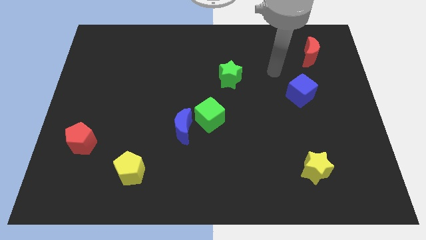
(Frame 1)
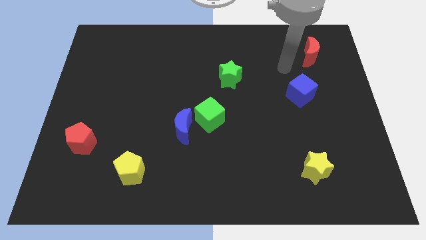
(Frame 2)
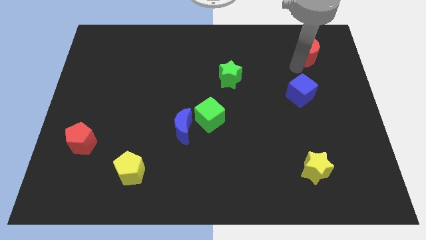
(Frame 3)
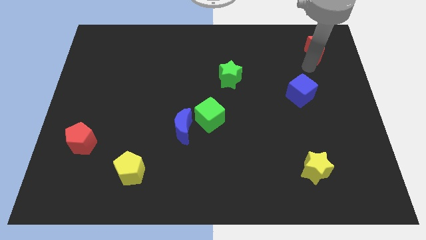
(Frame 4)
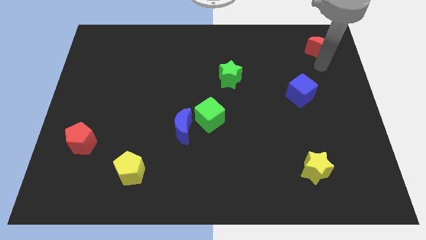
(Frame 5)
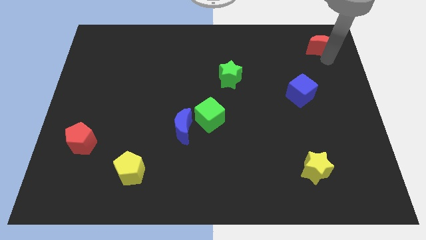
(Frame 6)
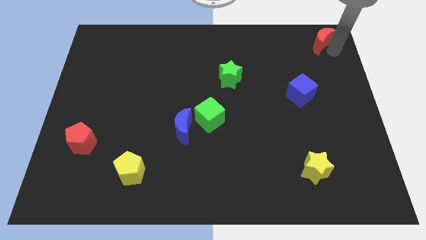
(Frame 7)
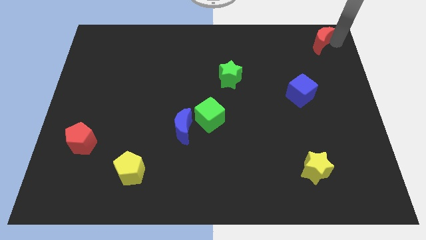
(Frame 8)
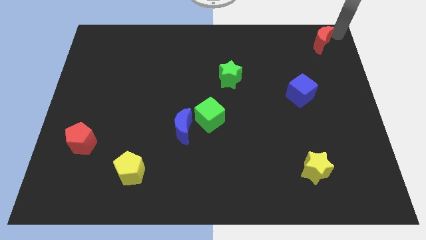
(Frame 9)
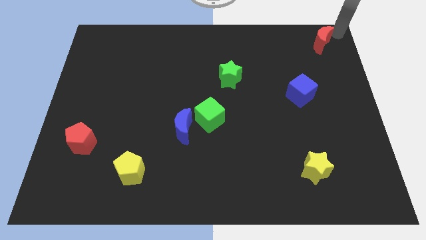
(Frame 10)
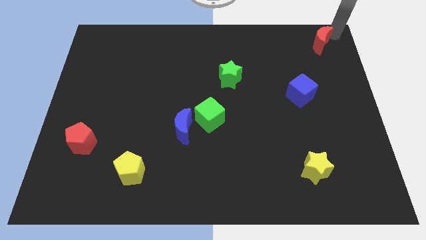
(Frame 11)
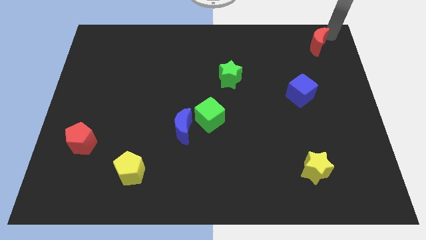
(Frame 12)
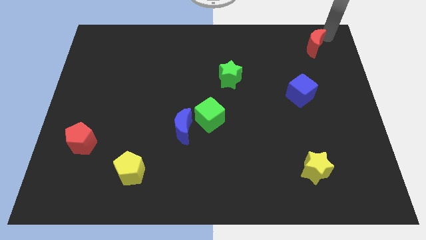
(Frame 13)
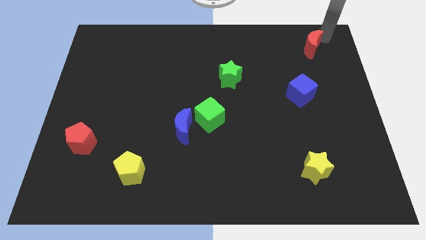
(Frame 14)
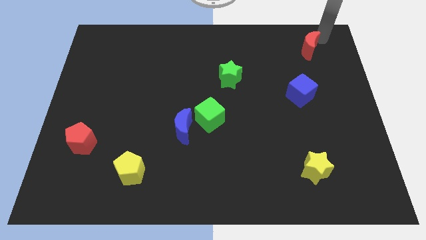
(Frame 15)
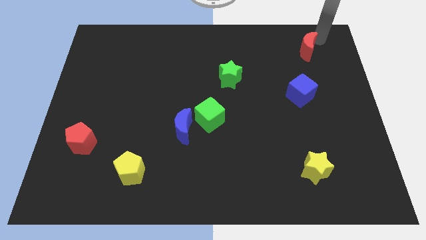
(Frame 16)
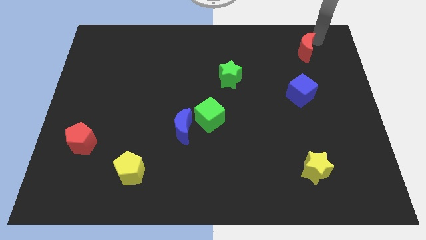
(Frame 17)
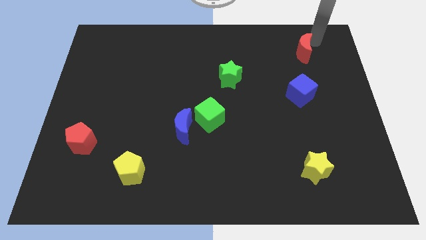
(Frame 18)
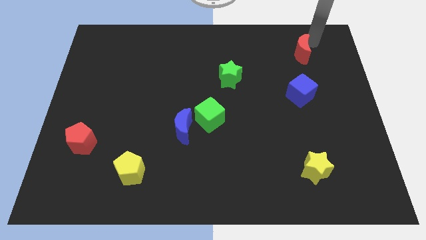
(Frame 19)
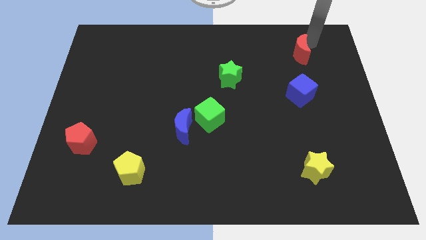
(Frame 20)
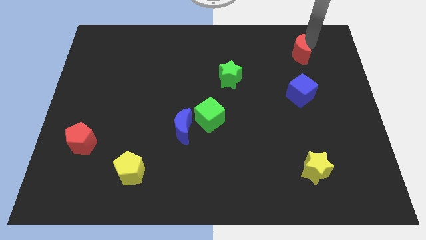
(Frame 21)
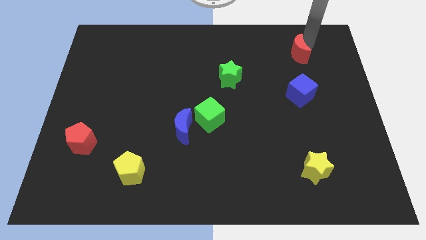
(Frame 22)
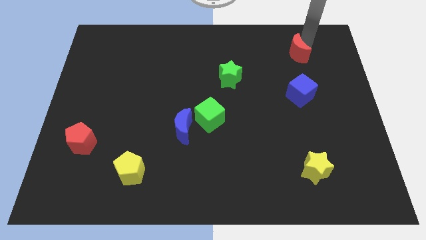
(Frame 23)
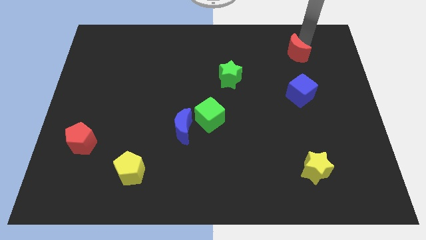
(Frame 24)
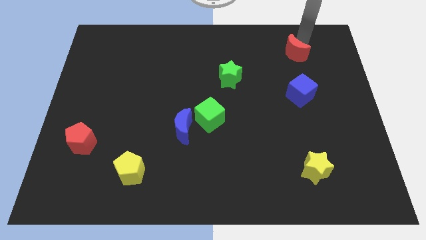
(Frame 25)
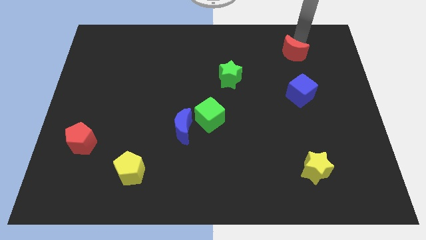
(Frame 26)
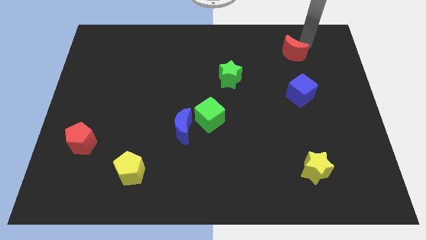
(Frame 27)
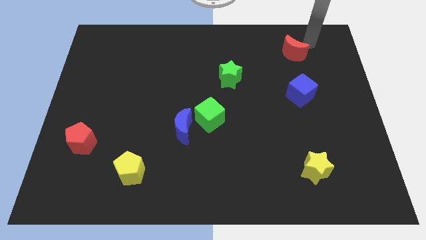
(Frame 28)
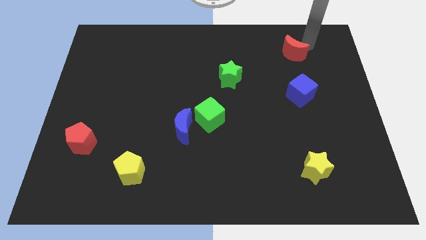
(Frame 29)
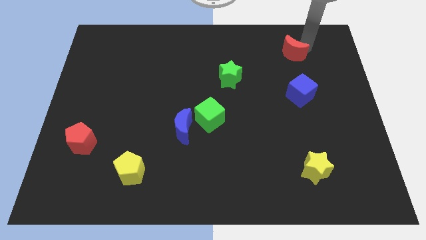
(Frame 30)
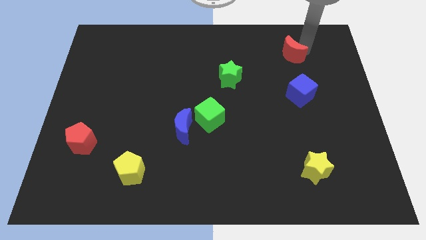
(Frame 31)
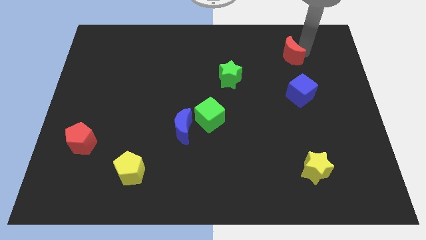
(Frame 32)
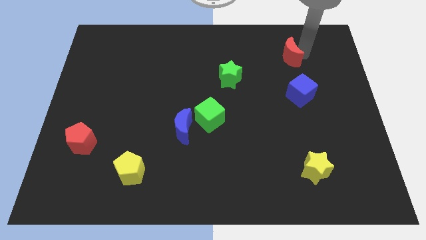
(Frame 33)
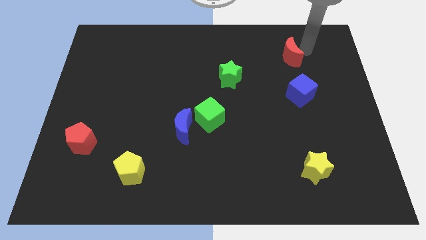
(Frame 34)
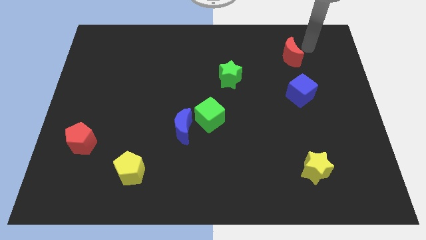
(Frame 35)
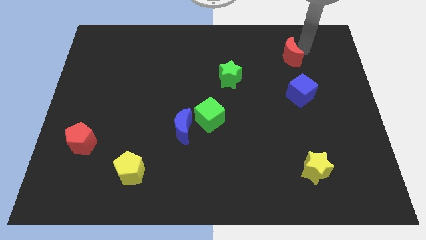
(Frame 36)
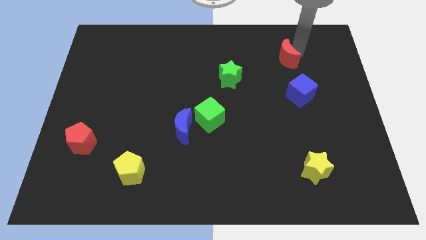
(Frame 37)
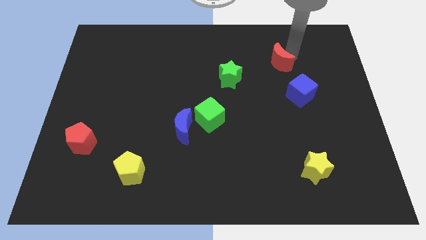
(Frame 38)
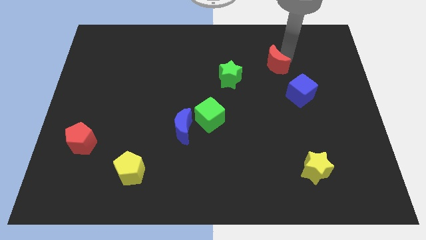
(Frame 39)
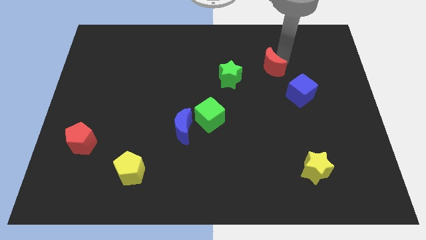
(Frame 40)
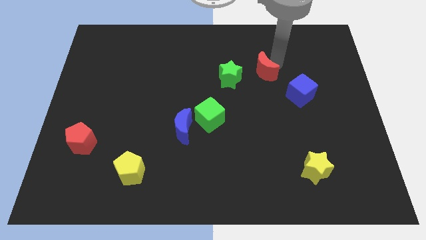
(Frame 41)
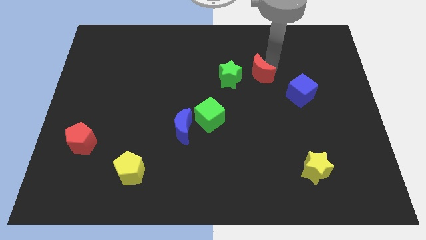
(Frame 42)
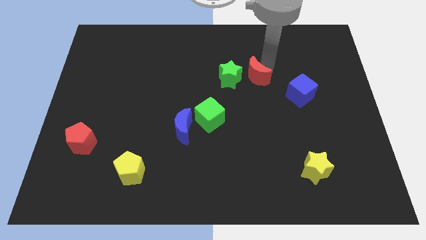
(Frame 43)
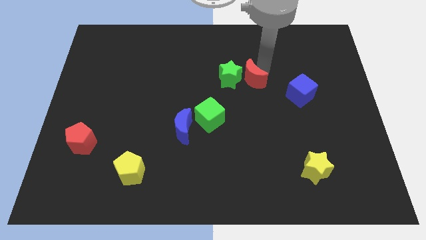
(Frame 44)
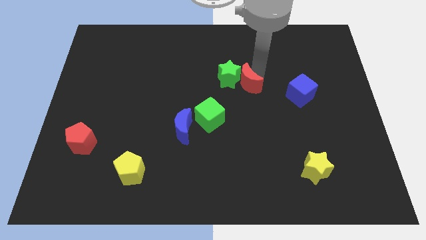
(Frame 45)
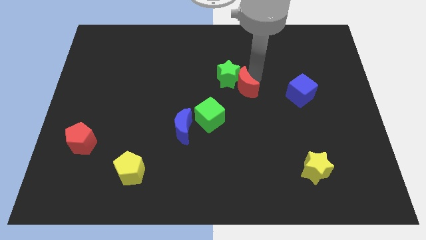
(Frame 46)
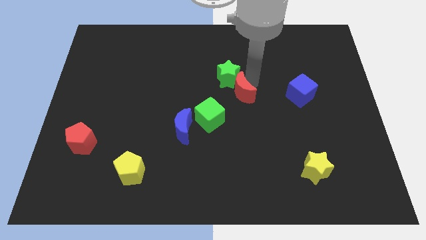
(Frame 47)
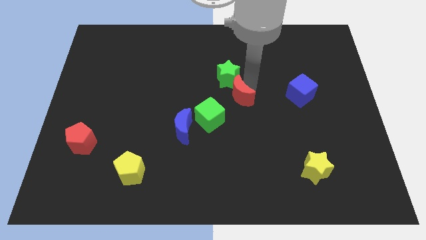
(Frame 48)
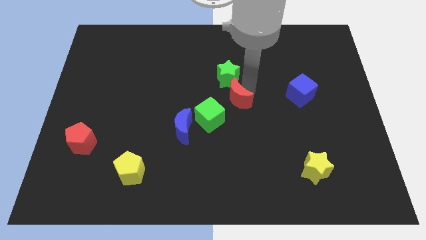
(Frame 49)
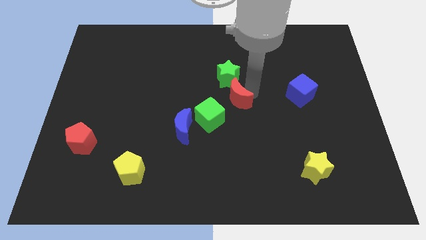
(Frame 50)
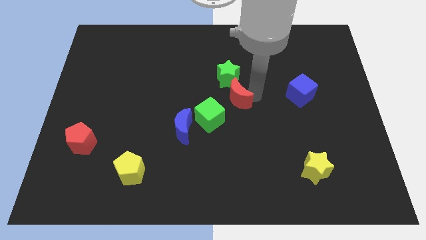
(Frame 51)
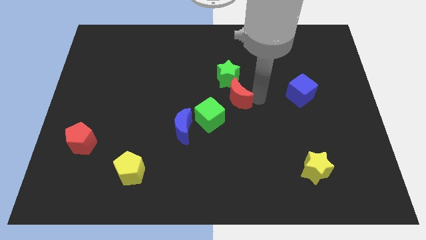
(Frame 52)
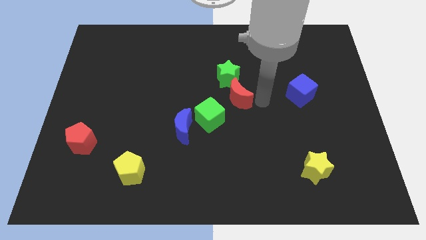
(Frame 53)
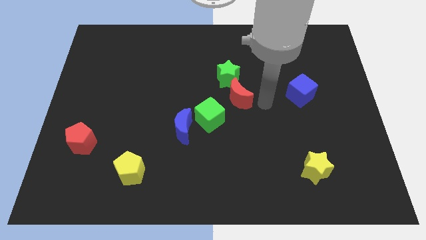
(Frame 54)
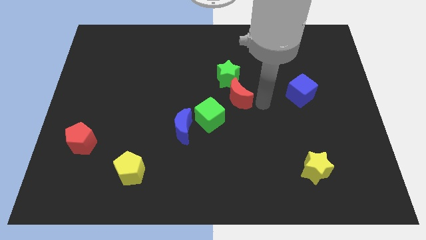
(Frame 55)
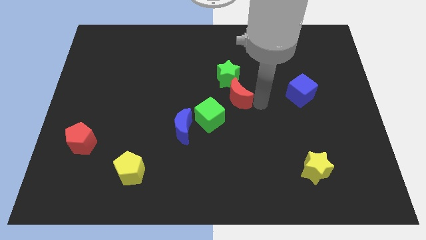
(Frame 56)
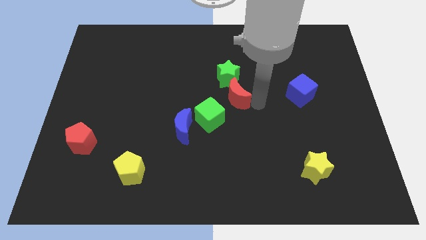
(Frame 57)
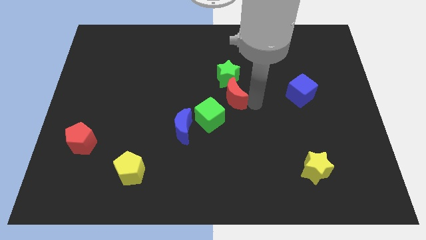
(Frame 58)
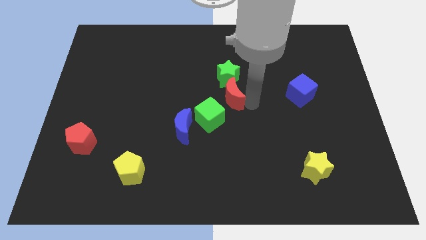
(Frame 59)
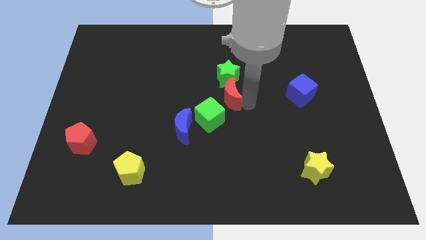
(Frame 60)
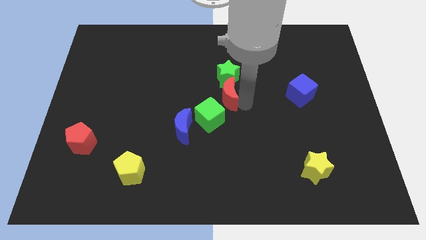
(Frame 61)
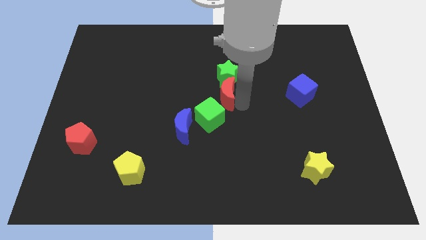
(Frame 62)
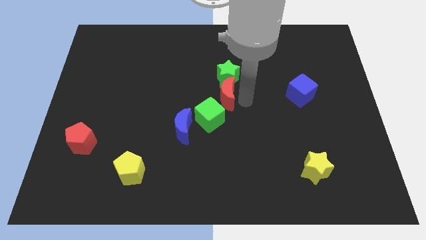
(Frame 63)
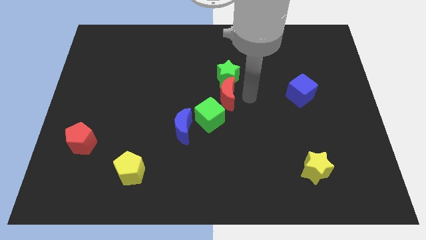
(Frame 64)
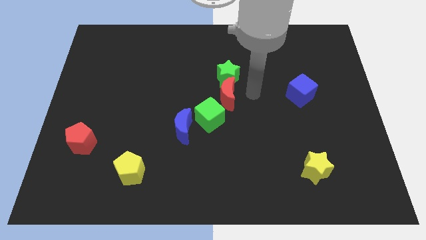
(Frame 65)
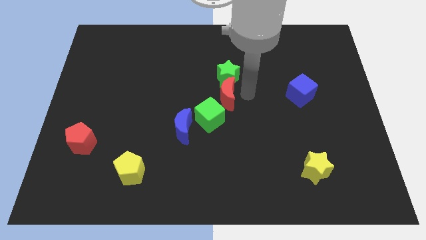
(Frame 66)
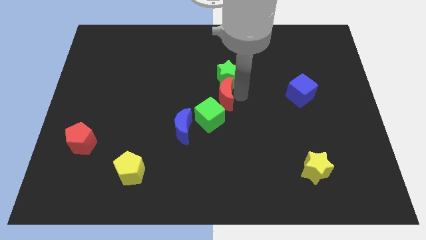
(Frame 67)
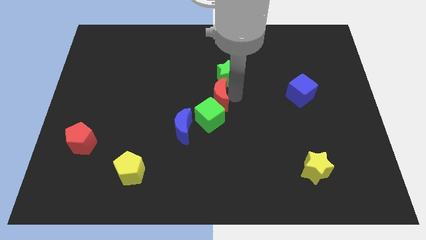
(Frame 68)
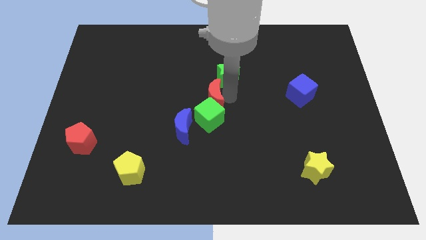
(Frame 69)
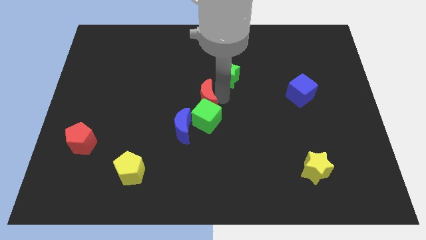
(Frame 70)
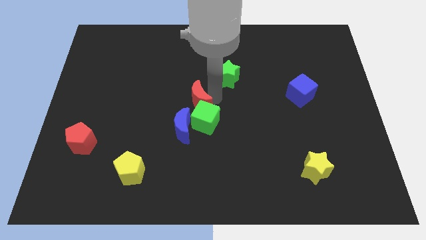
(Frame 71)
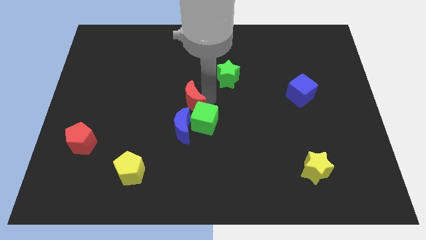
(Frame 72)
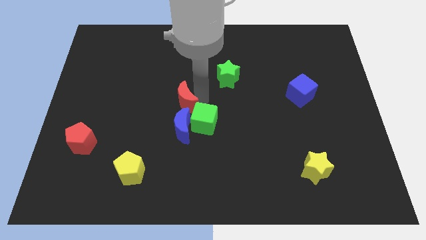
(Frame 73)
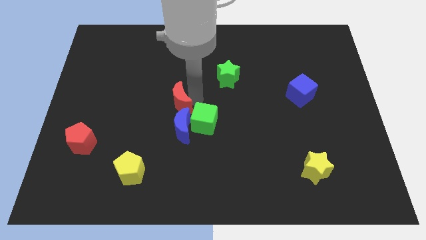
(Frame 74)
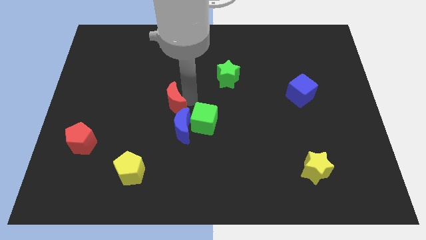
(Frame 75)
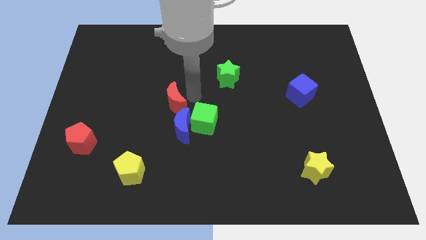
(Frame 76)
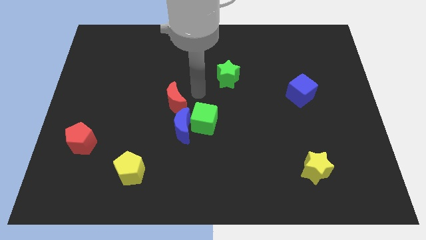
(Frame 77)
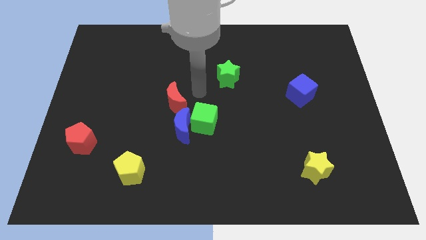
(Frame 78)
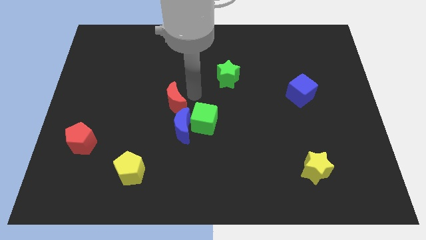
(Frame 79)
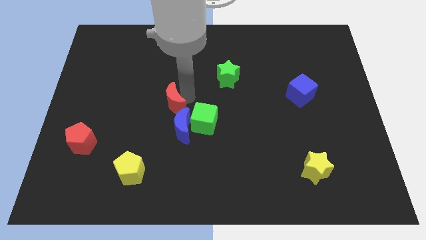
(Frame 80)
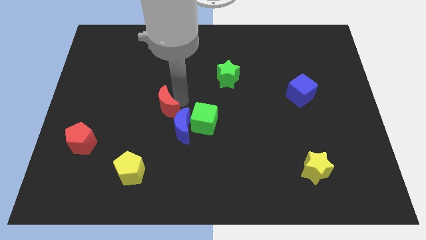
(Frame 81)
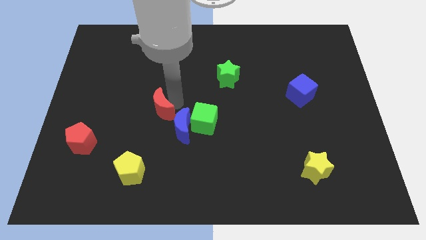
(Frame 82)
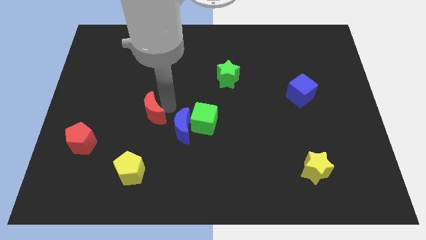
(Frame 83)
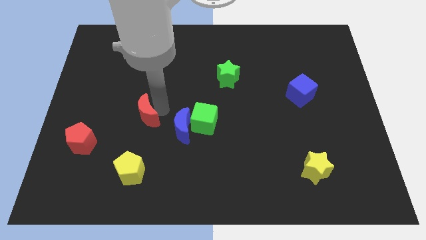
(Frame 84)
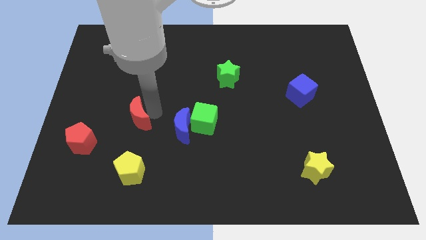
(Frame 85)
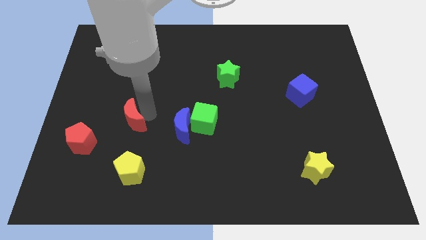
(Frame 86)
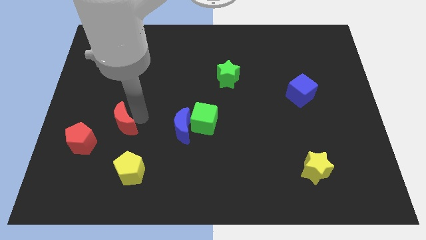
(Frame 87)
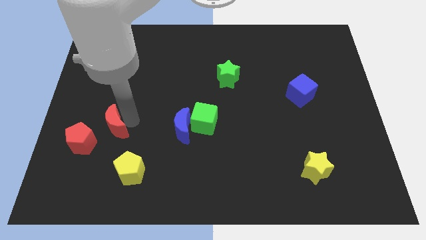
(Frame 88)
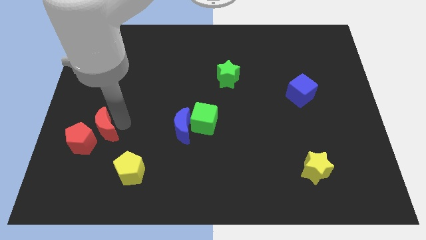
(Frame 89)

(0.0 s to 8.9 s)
put the red moon next to the red pentagon
